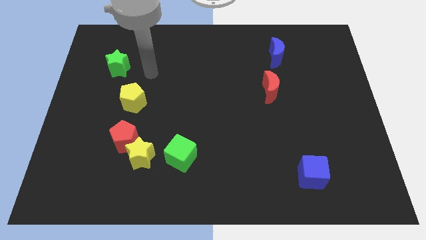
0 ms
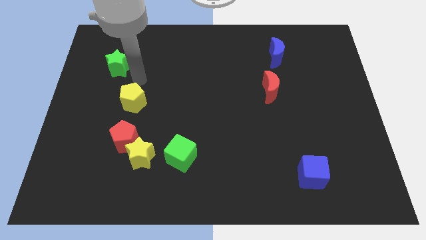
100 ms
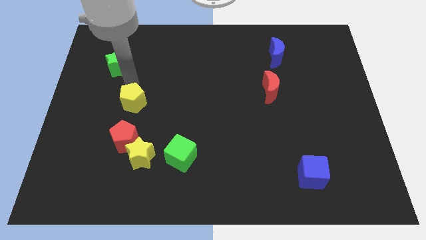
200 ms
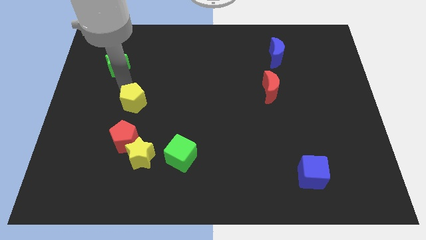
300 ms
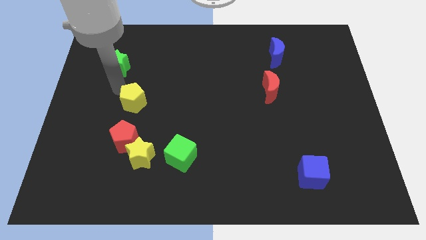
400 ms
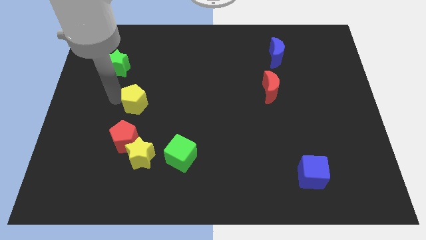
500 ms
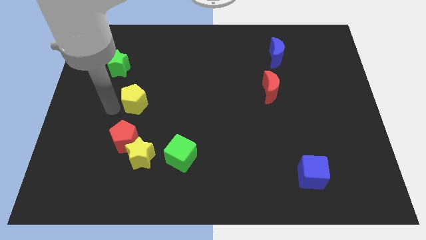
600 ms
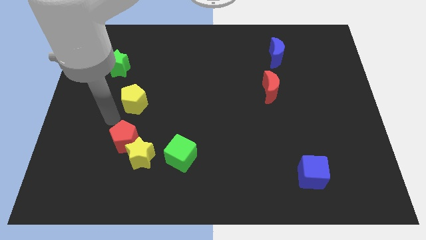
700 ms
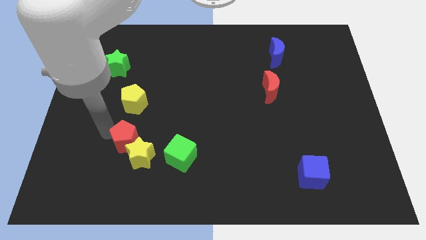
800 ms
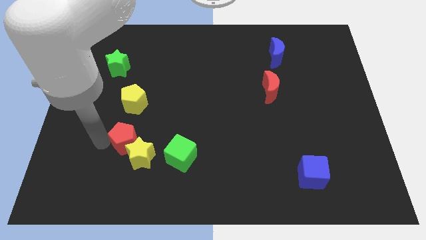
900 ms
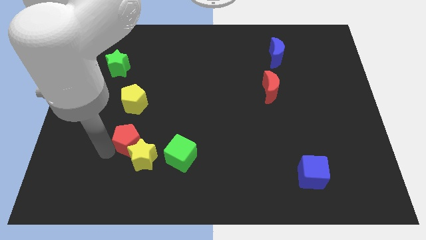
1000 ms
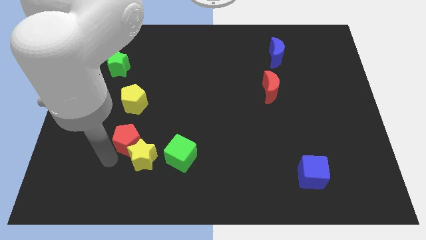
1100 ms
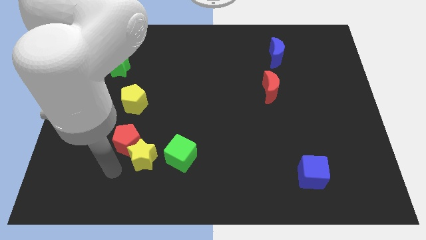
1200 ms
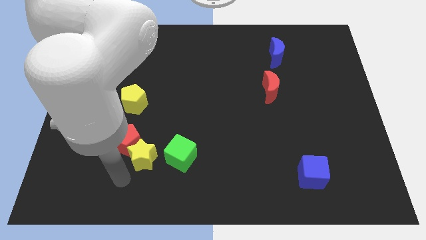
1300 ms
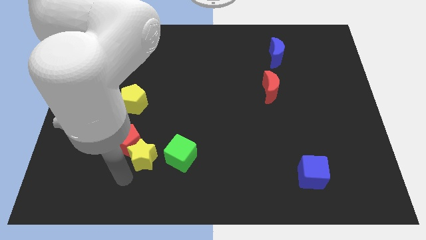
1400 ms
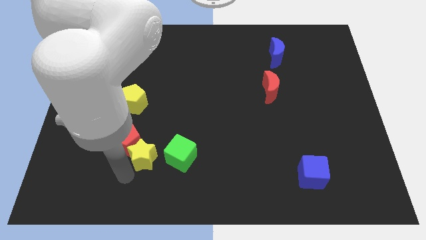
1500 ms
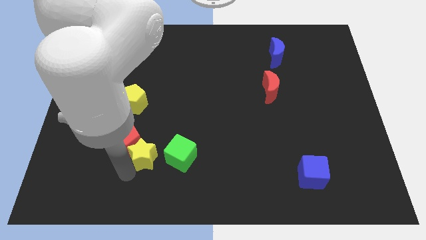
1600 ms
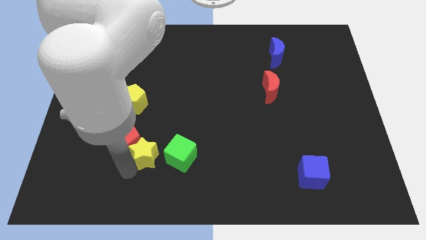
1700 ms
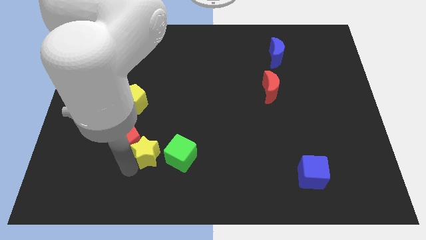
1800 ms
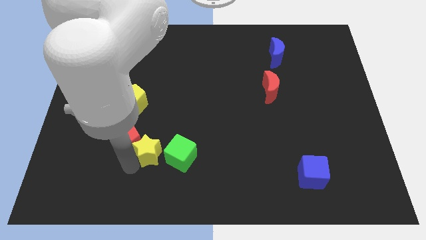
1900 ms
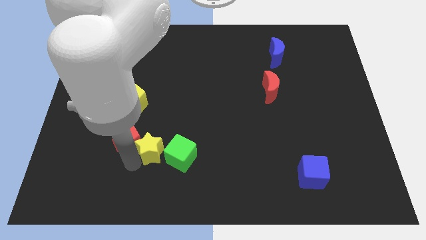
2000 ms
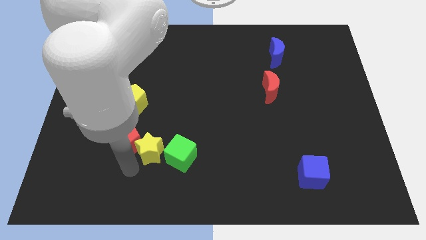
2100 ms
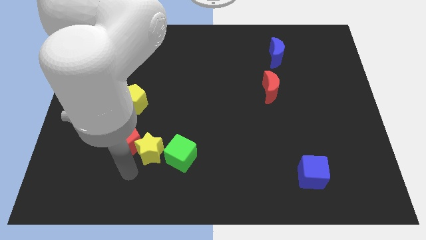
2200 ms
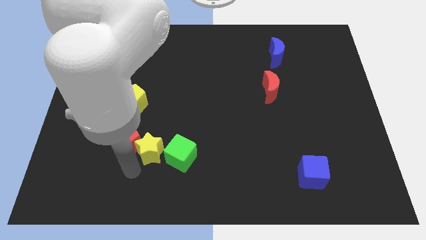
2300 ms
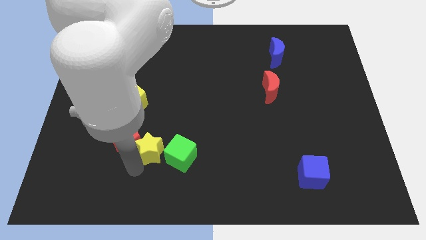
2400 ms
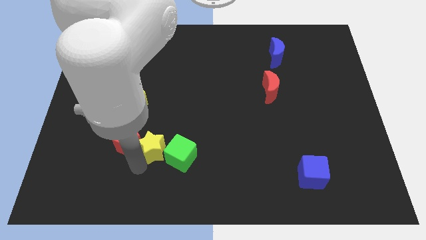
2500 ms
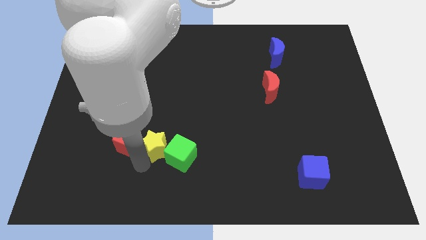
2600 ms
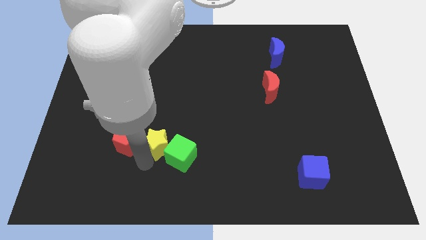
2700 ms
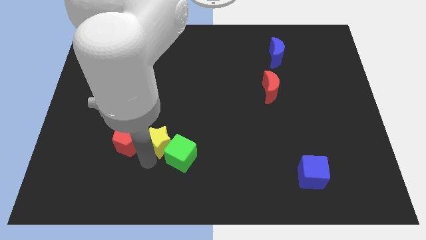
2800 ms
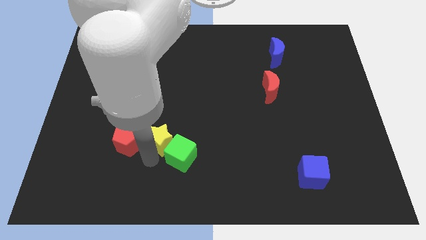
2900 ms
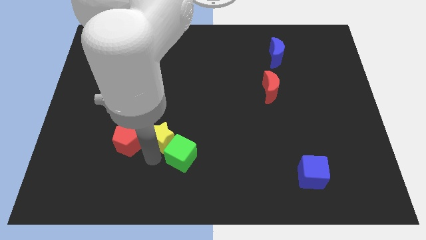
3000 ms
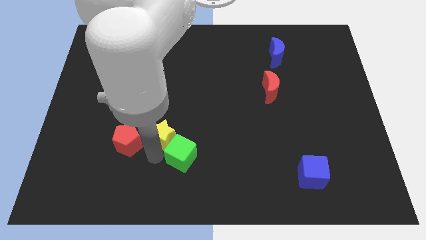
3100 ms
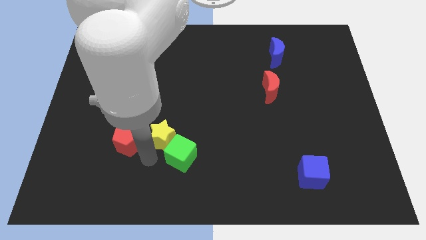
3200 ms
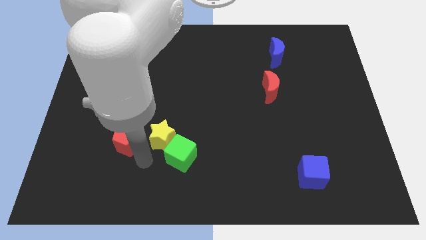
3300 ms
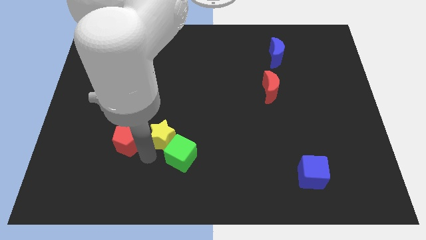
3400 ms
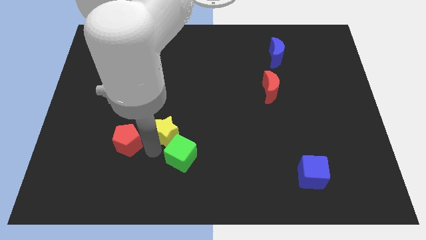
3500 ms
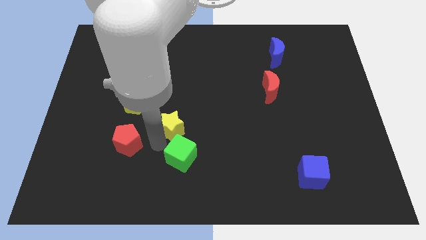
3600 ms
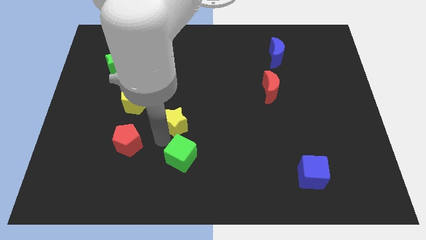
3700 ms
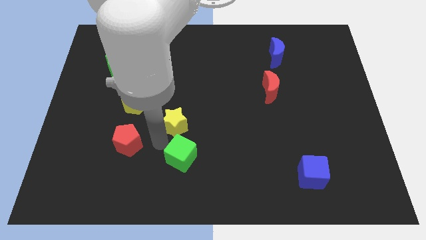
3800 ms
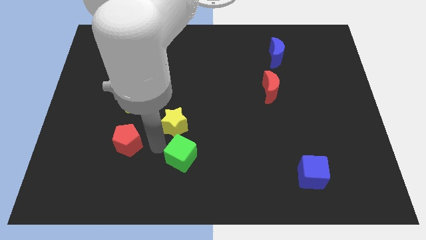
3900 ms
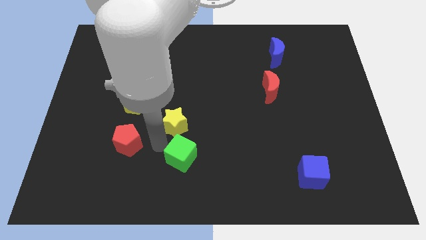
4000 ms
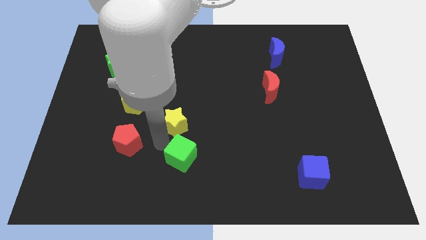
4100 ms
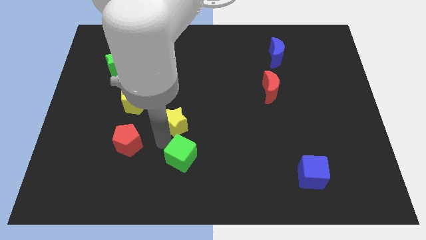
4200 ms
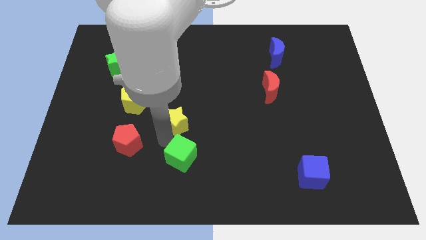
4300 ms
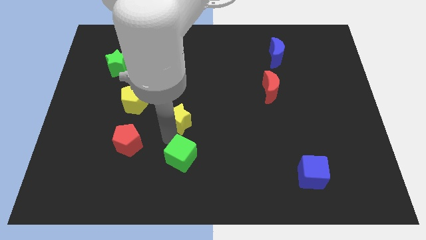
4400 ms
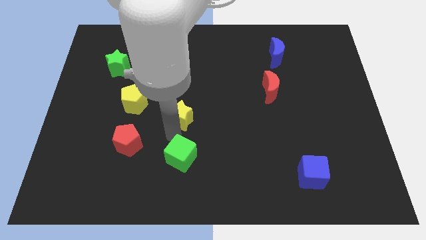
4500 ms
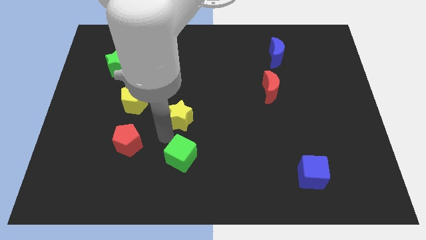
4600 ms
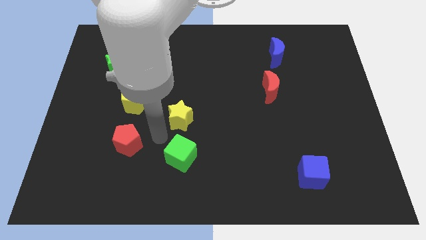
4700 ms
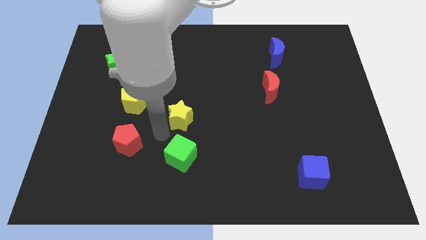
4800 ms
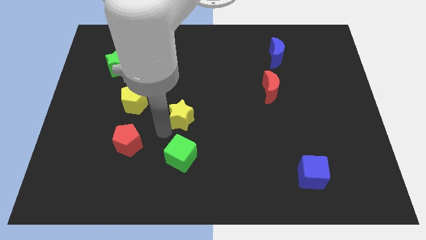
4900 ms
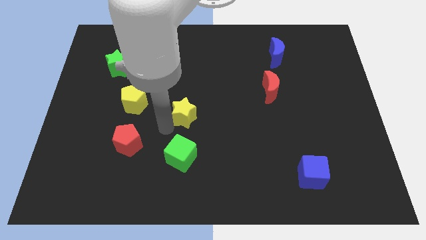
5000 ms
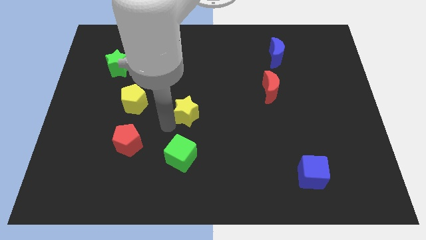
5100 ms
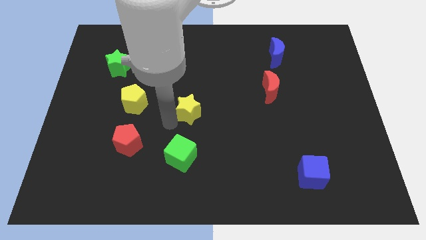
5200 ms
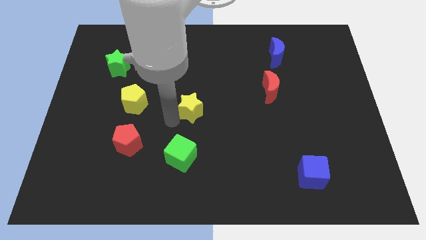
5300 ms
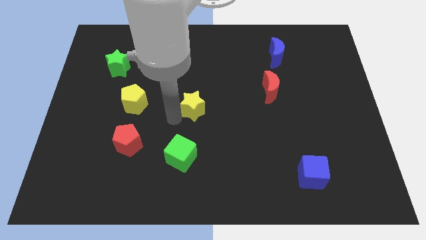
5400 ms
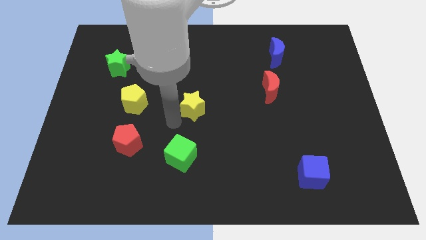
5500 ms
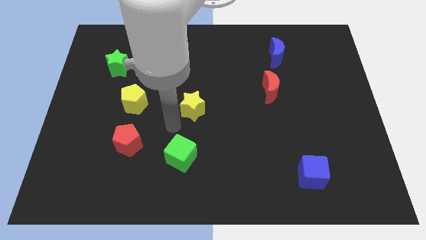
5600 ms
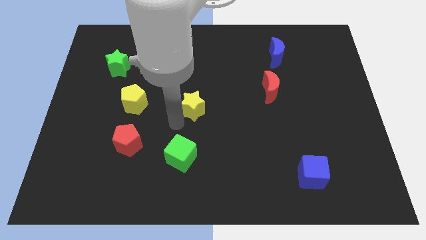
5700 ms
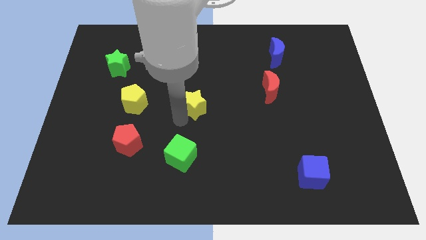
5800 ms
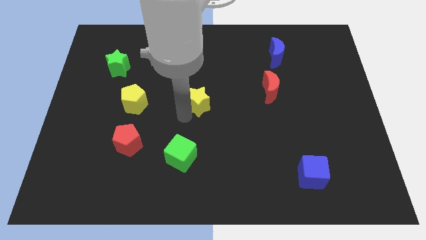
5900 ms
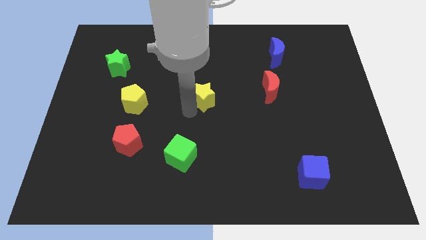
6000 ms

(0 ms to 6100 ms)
push the yellow star diagonally up and to the right

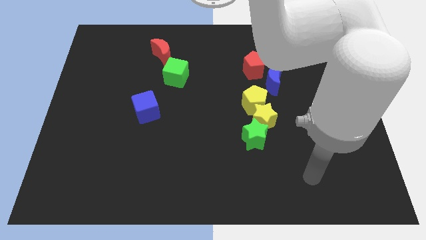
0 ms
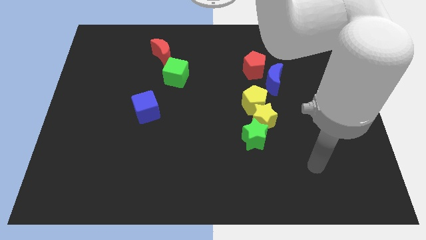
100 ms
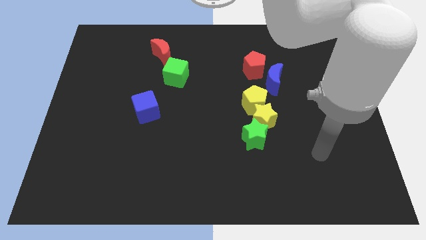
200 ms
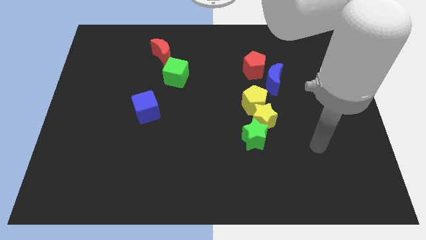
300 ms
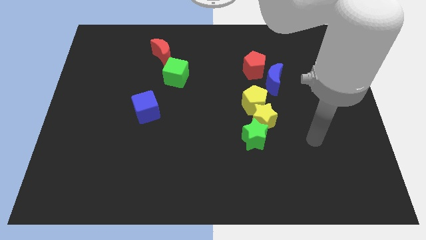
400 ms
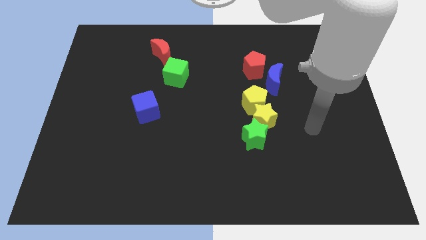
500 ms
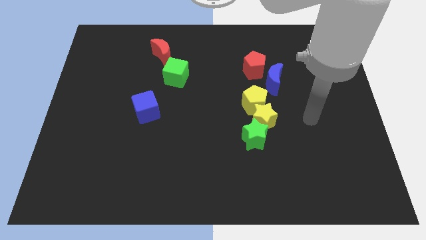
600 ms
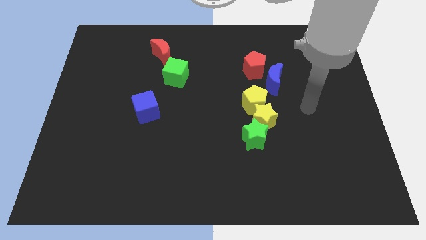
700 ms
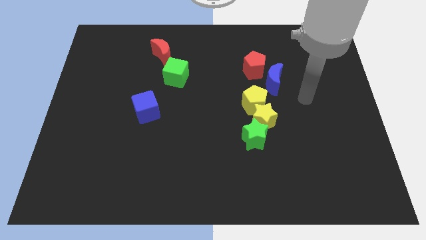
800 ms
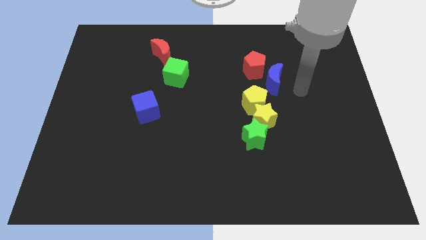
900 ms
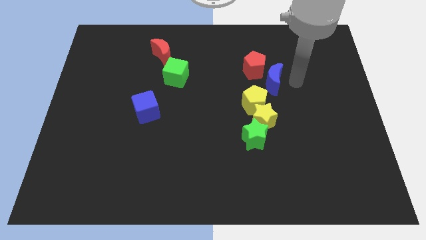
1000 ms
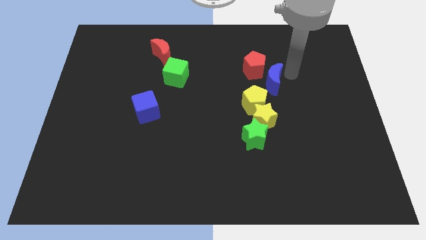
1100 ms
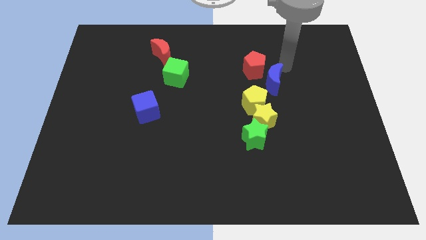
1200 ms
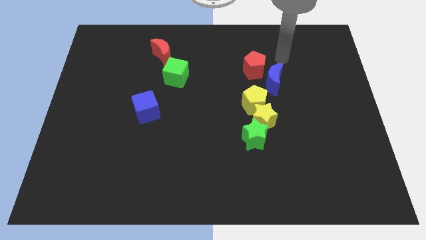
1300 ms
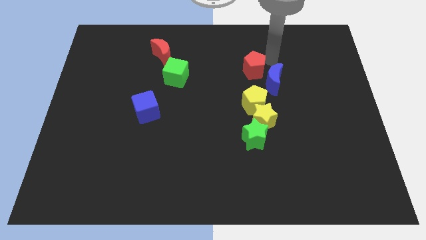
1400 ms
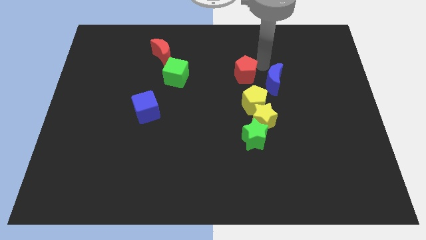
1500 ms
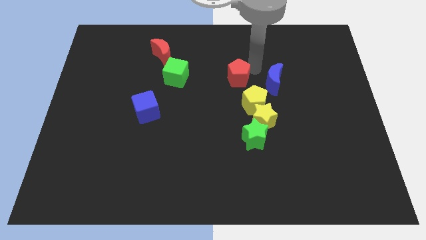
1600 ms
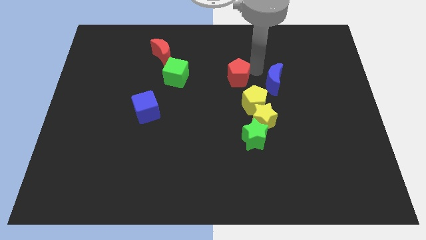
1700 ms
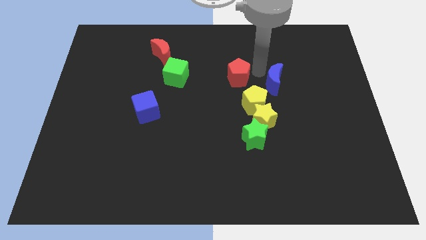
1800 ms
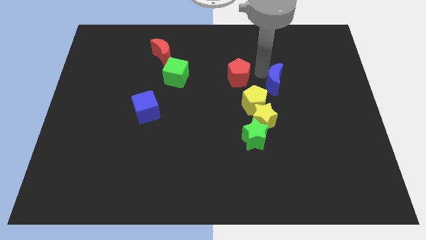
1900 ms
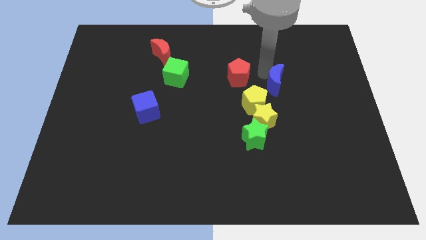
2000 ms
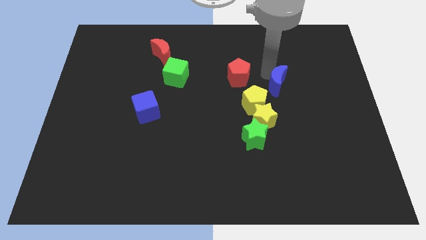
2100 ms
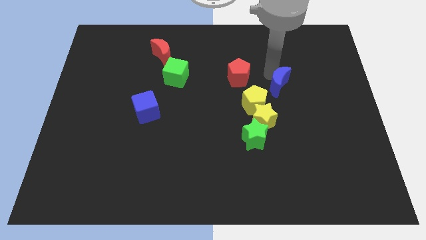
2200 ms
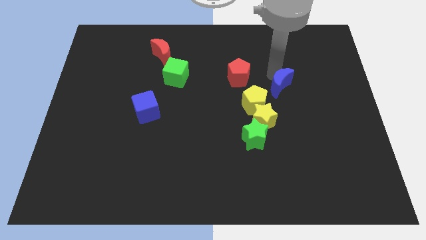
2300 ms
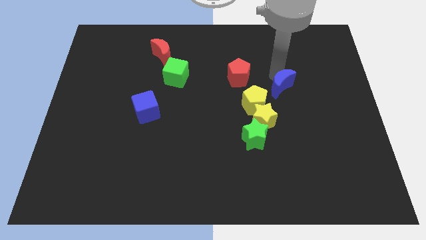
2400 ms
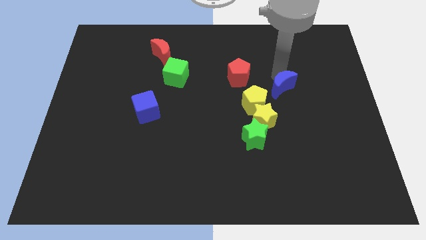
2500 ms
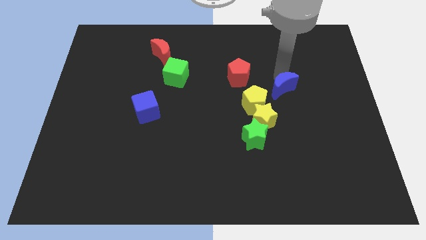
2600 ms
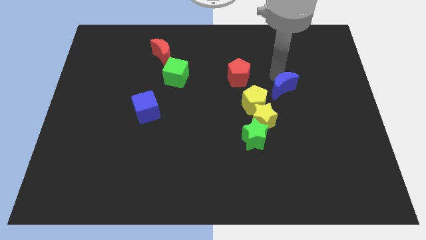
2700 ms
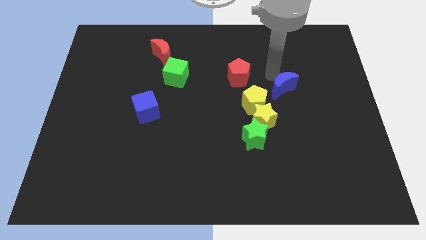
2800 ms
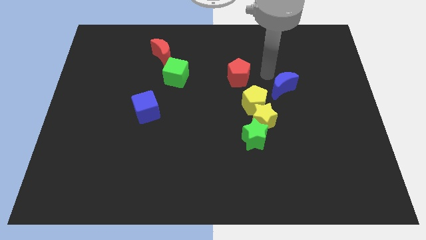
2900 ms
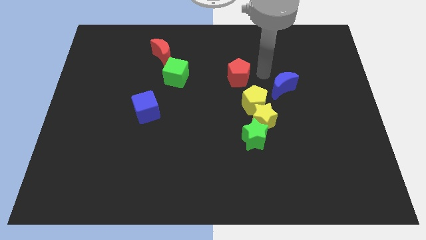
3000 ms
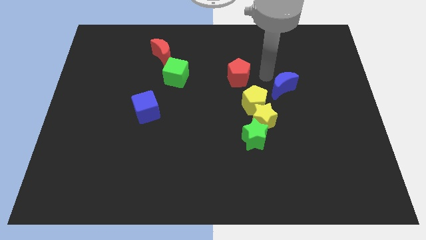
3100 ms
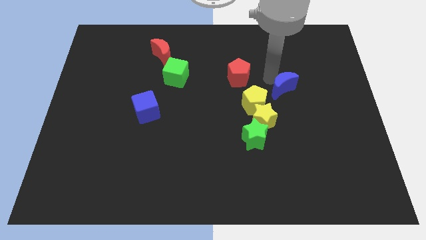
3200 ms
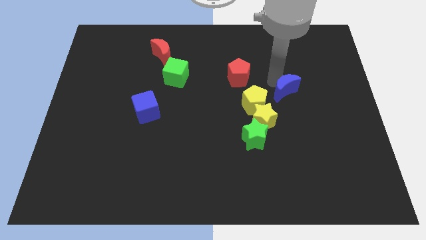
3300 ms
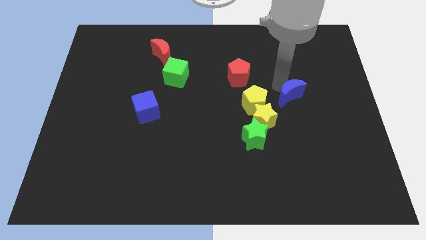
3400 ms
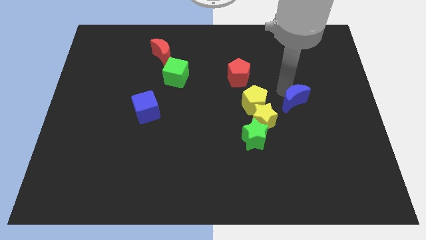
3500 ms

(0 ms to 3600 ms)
slightly slide the blue moon downwards and then to the right
